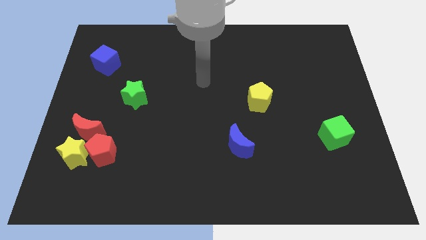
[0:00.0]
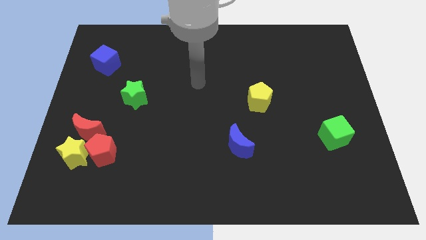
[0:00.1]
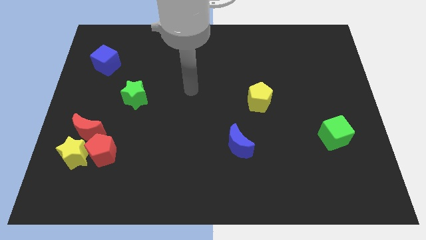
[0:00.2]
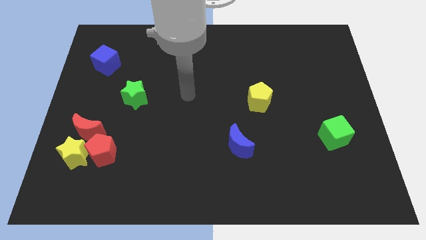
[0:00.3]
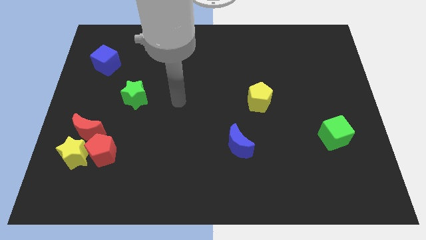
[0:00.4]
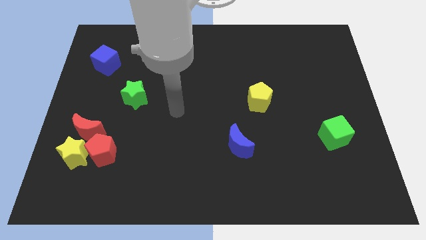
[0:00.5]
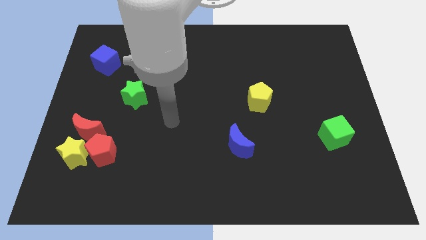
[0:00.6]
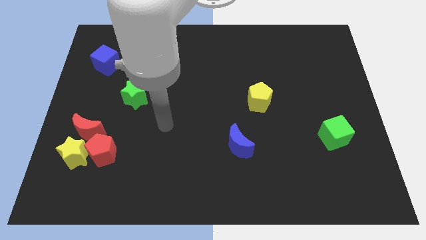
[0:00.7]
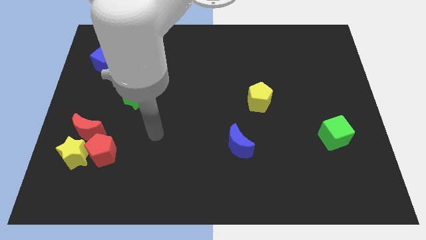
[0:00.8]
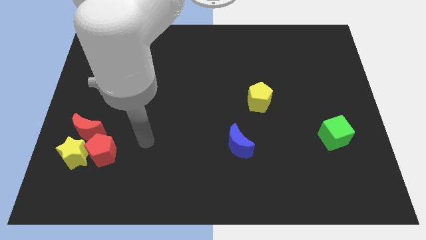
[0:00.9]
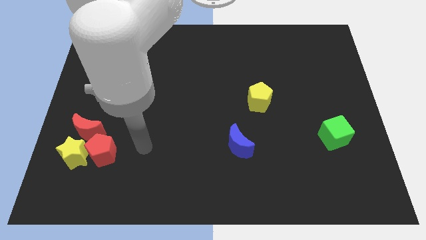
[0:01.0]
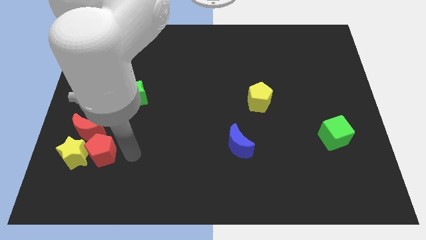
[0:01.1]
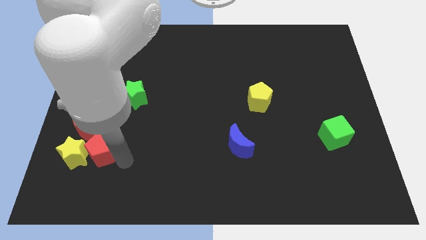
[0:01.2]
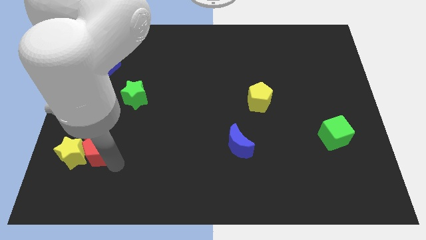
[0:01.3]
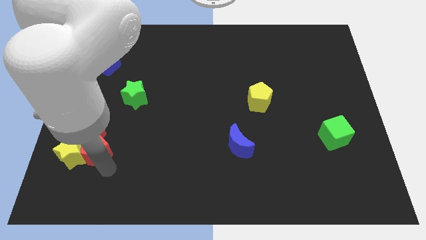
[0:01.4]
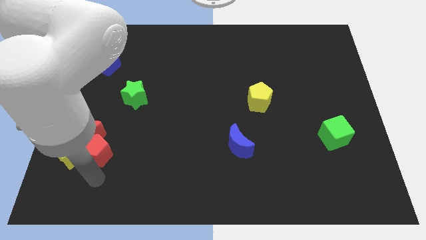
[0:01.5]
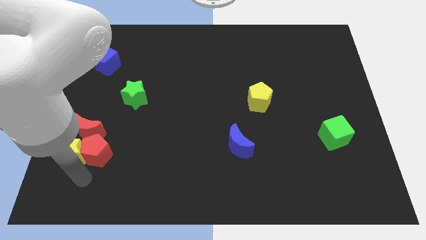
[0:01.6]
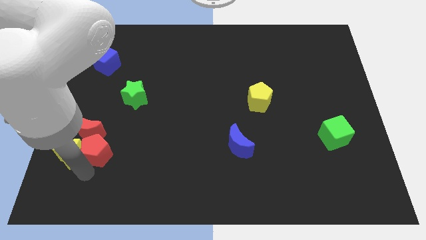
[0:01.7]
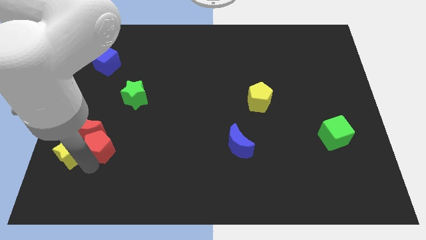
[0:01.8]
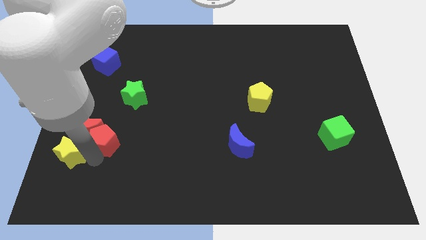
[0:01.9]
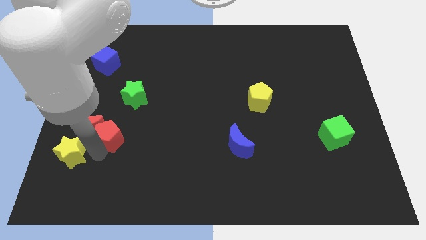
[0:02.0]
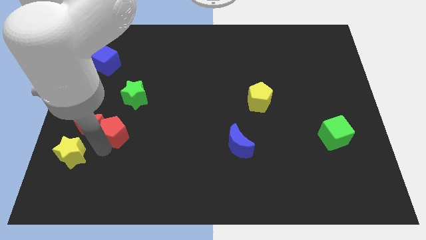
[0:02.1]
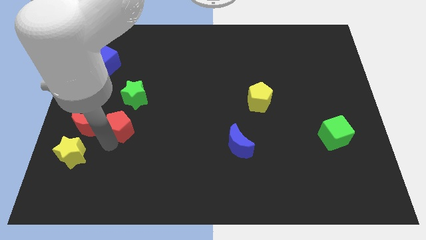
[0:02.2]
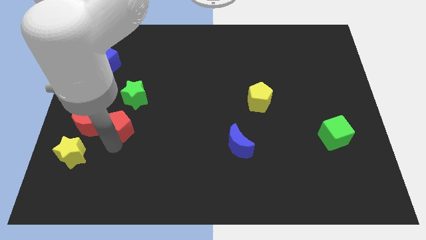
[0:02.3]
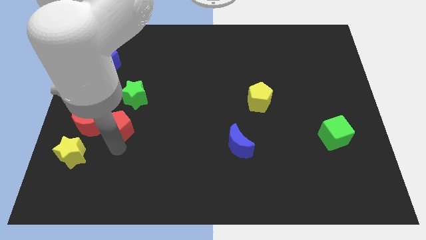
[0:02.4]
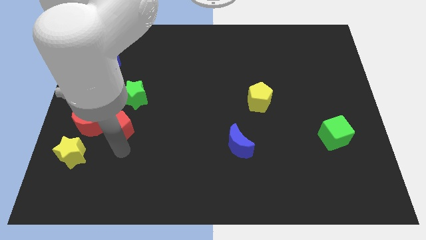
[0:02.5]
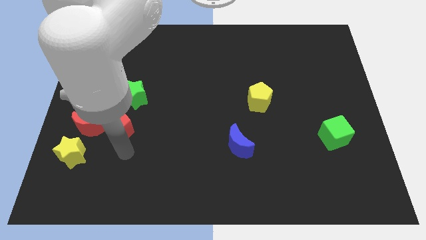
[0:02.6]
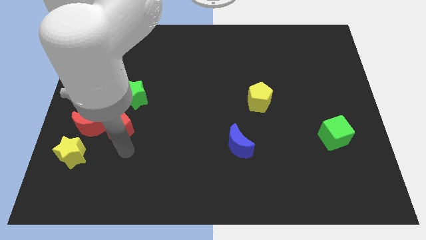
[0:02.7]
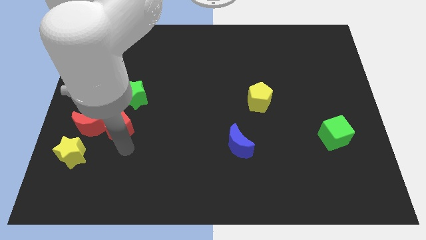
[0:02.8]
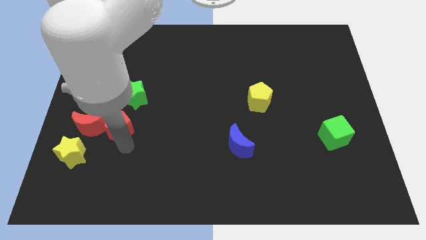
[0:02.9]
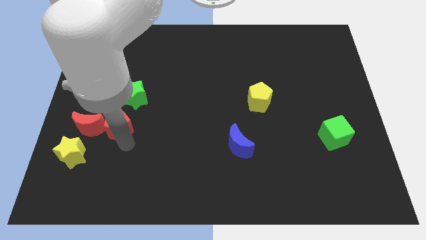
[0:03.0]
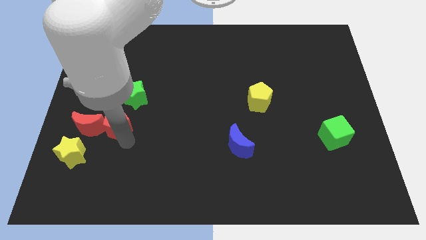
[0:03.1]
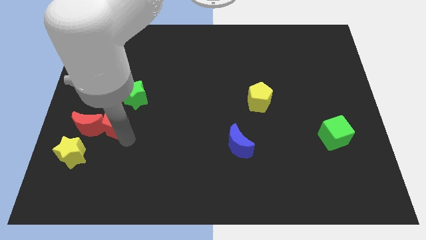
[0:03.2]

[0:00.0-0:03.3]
push the red pentagon a bit up

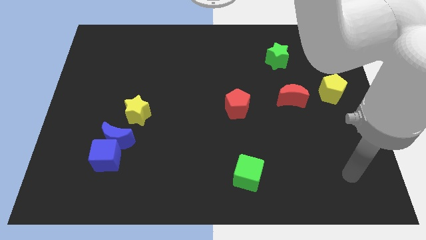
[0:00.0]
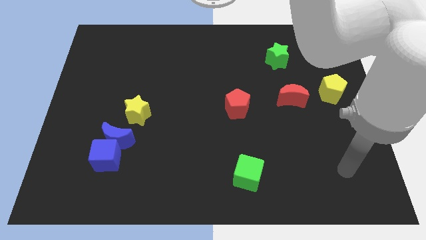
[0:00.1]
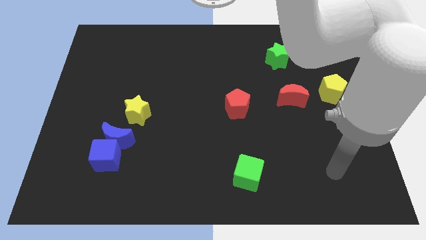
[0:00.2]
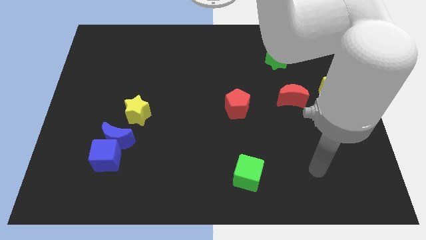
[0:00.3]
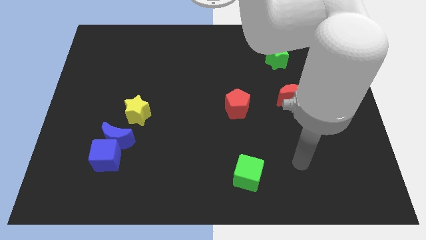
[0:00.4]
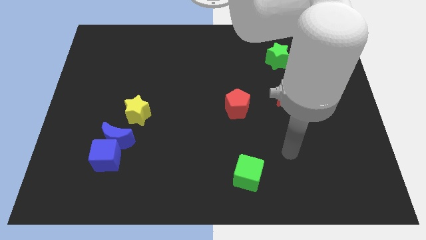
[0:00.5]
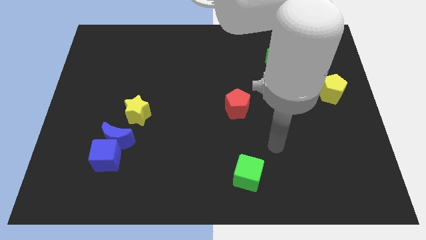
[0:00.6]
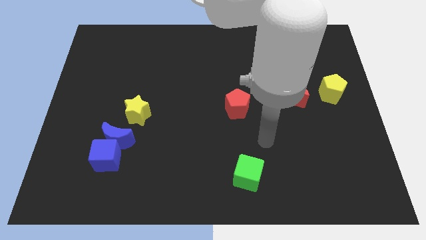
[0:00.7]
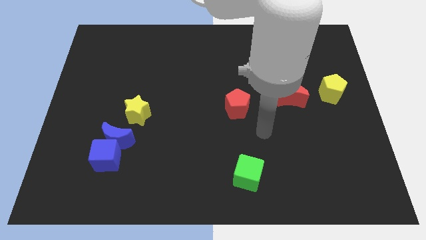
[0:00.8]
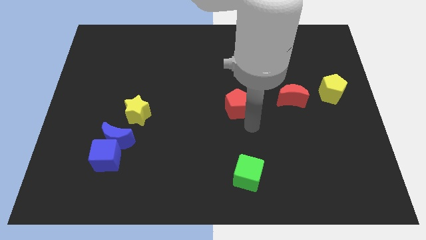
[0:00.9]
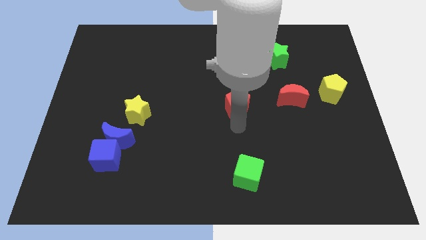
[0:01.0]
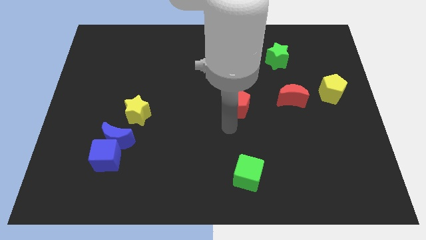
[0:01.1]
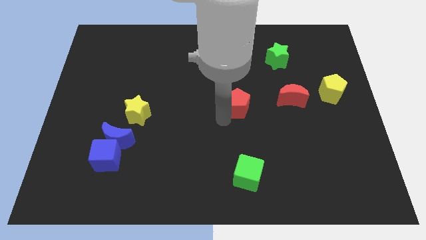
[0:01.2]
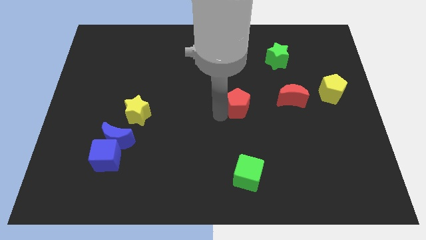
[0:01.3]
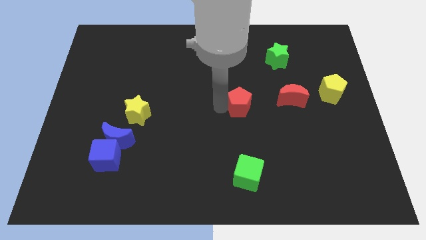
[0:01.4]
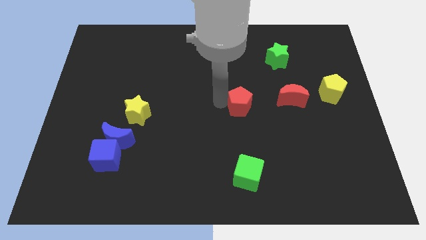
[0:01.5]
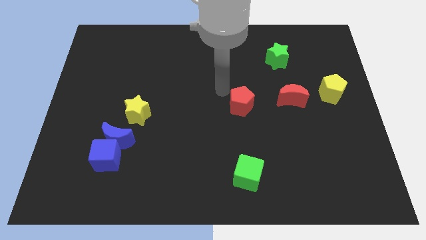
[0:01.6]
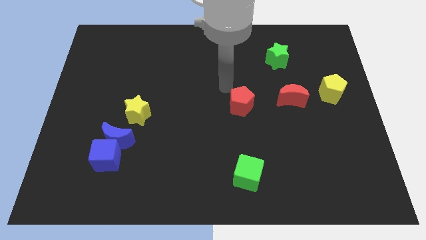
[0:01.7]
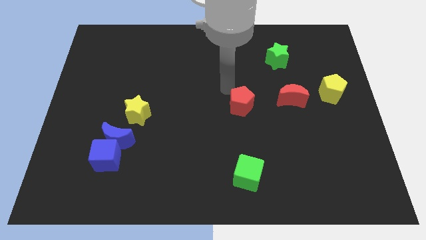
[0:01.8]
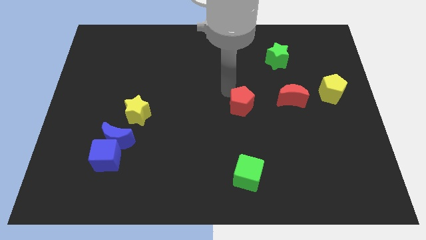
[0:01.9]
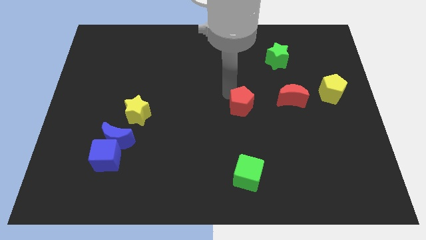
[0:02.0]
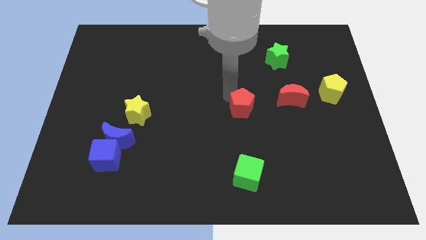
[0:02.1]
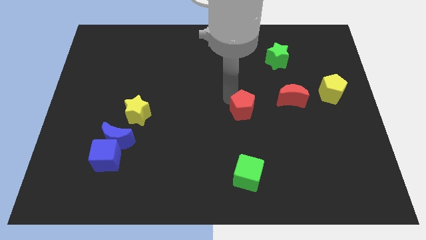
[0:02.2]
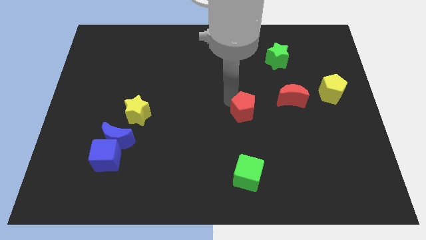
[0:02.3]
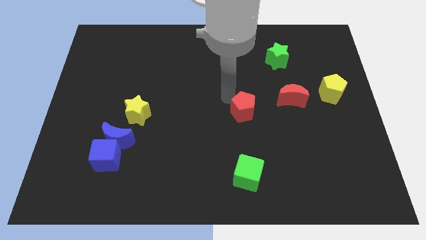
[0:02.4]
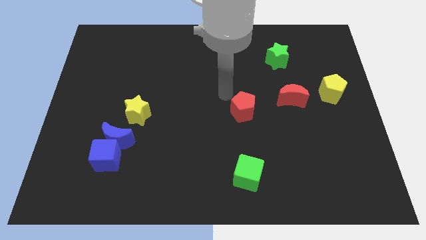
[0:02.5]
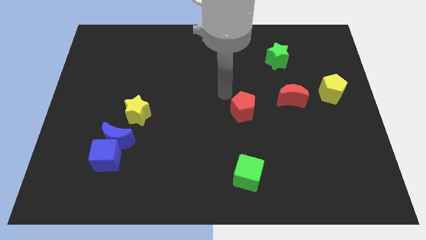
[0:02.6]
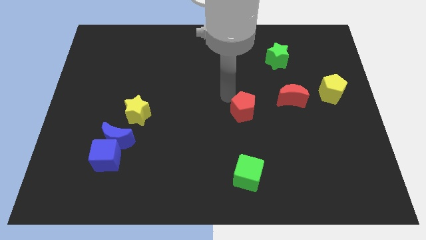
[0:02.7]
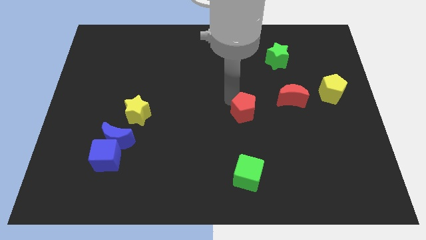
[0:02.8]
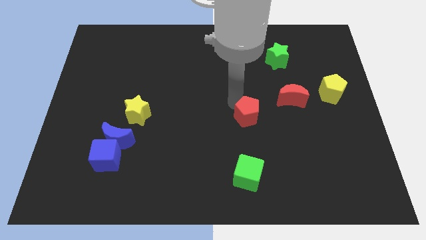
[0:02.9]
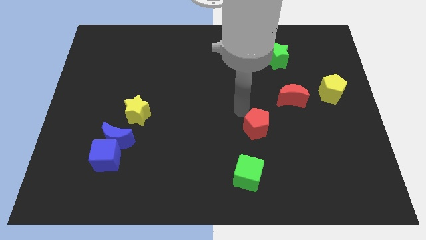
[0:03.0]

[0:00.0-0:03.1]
move the red pentagon a little bit down and then right

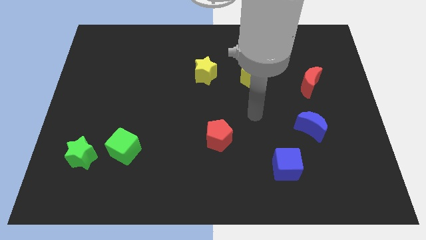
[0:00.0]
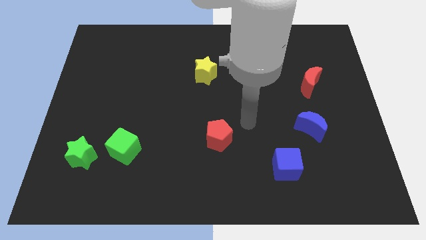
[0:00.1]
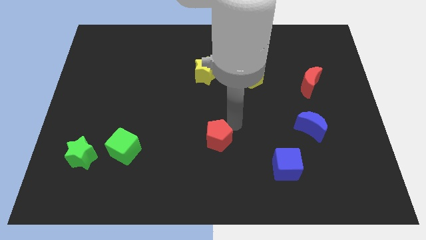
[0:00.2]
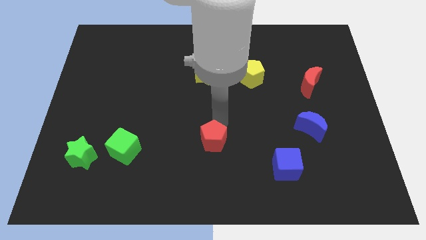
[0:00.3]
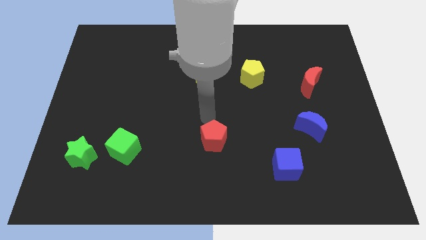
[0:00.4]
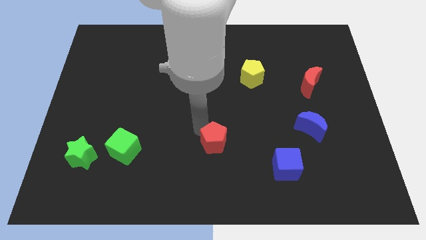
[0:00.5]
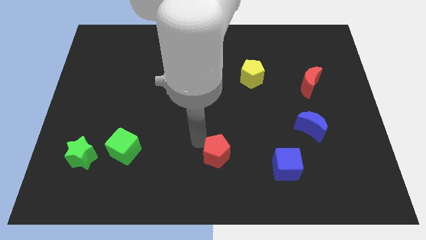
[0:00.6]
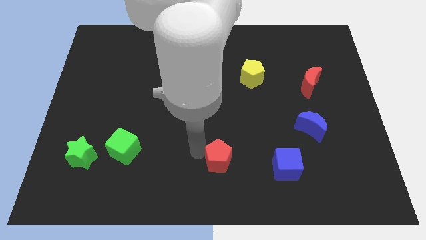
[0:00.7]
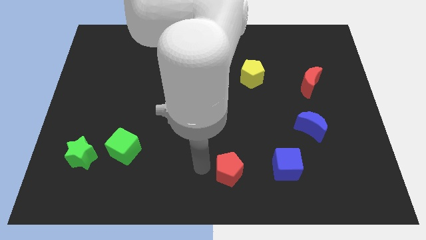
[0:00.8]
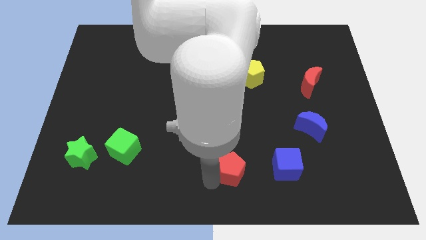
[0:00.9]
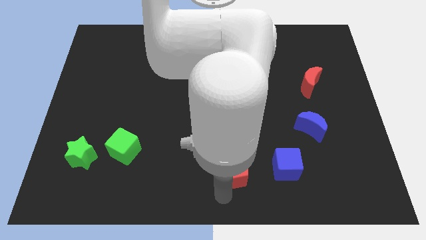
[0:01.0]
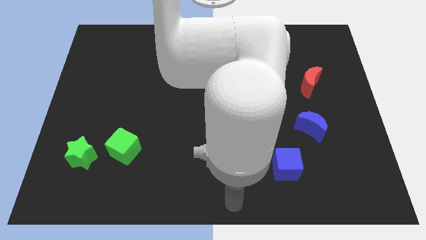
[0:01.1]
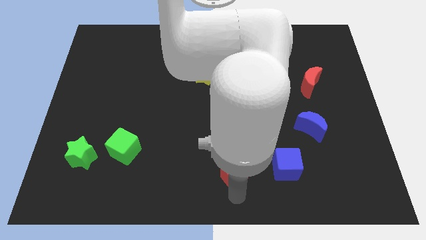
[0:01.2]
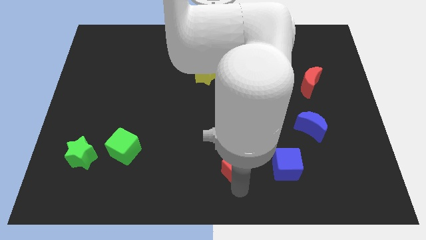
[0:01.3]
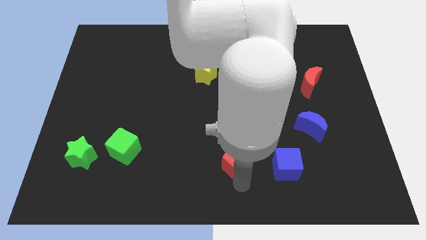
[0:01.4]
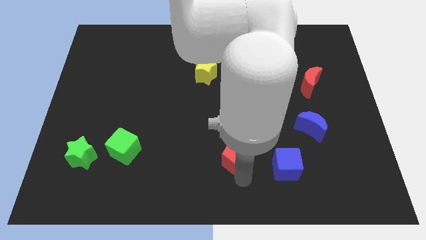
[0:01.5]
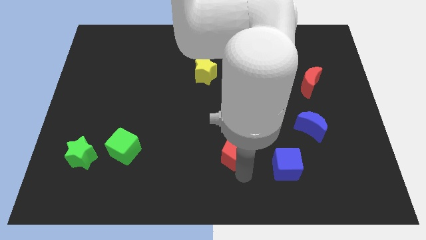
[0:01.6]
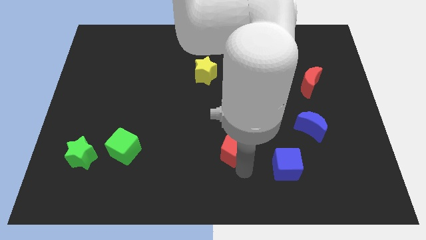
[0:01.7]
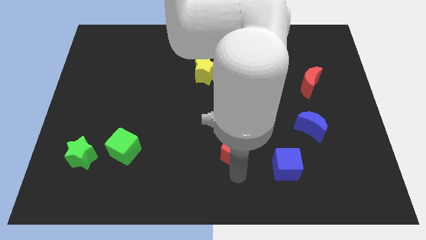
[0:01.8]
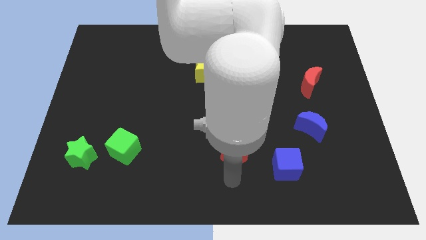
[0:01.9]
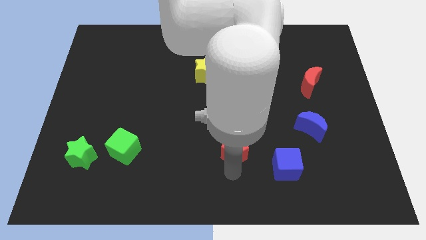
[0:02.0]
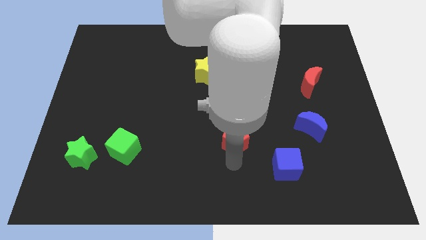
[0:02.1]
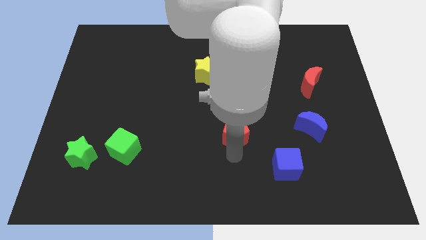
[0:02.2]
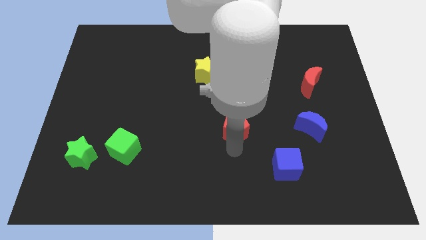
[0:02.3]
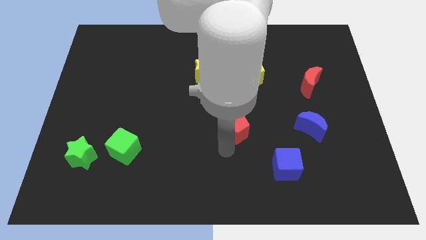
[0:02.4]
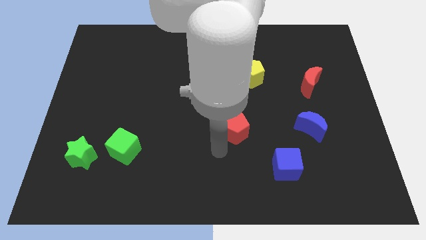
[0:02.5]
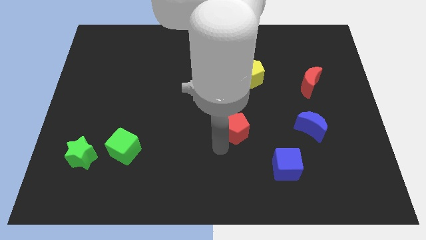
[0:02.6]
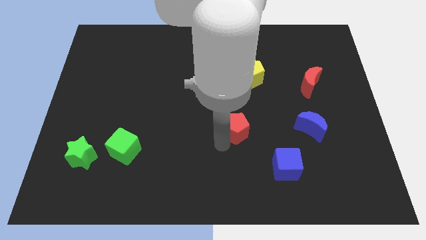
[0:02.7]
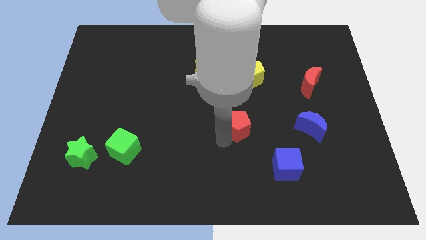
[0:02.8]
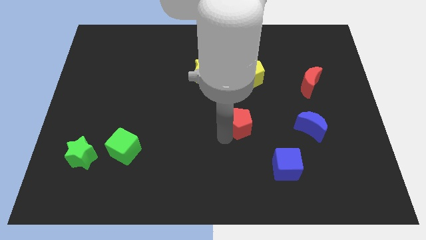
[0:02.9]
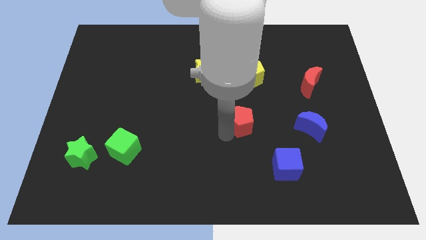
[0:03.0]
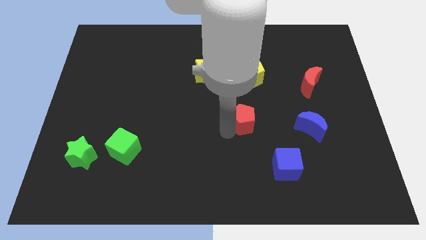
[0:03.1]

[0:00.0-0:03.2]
slightly slide the red pentagon upwards and right diagonally
